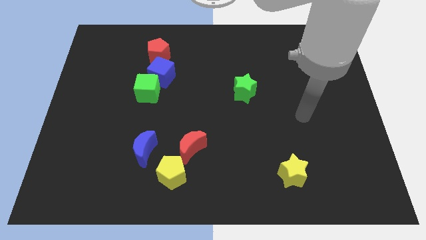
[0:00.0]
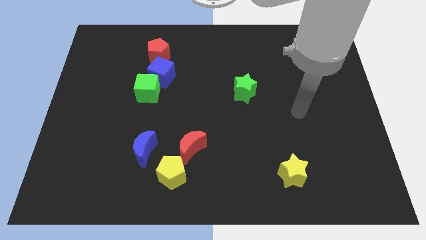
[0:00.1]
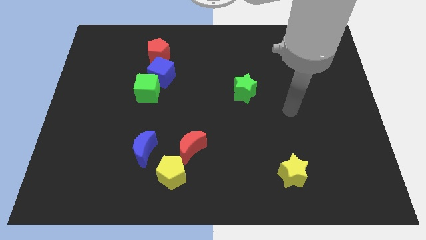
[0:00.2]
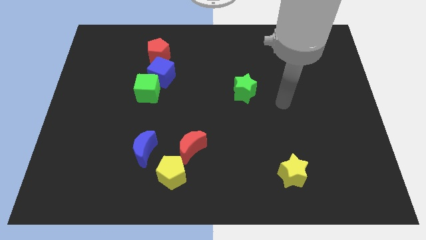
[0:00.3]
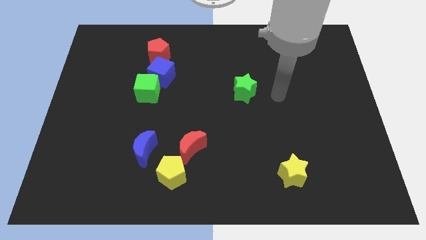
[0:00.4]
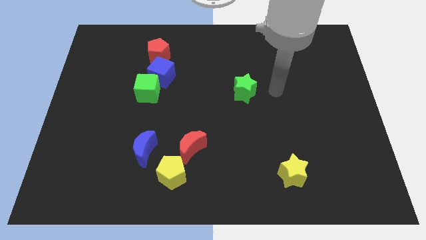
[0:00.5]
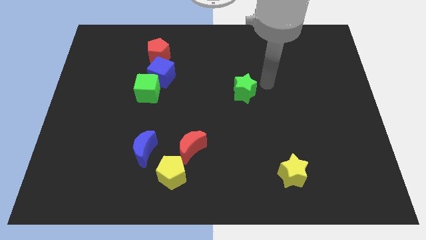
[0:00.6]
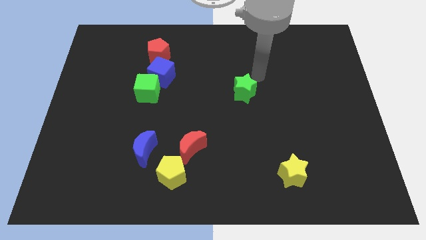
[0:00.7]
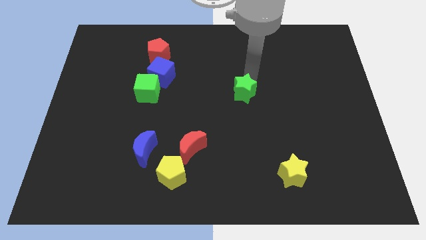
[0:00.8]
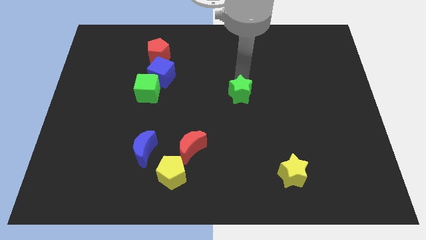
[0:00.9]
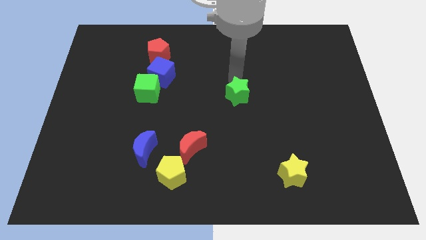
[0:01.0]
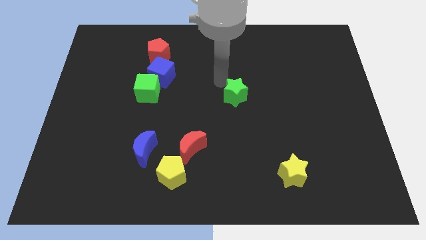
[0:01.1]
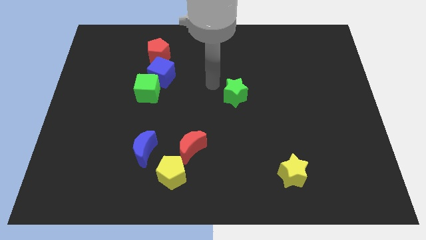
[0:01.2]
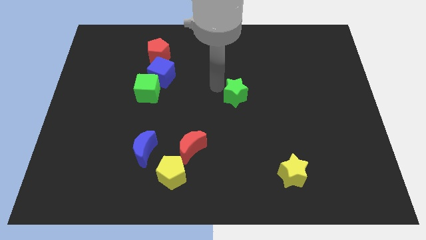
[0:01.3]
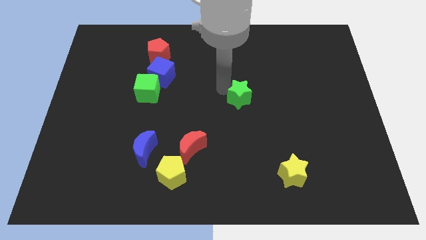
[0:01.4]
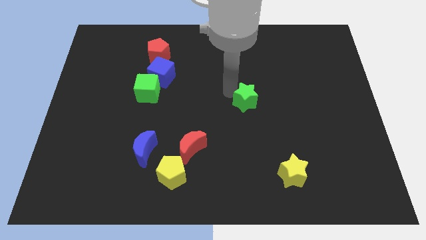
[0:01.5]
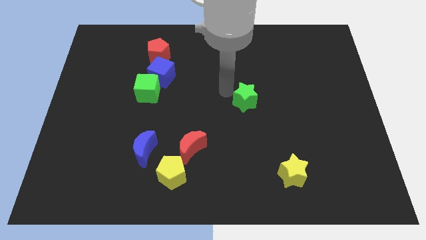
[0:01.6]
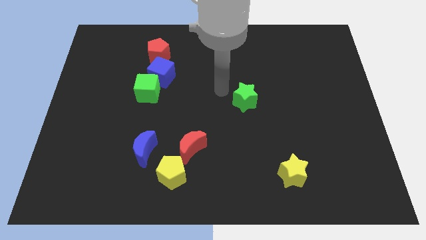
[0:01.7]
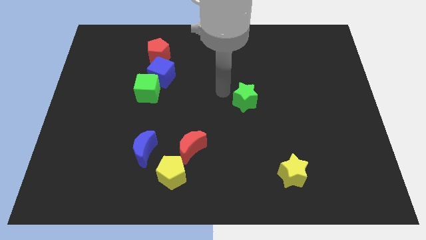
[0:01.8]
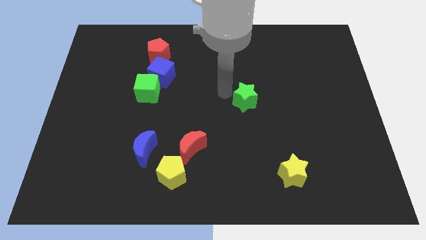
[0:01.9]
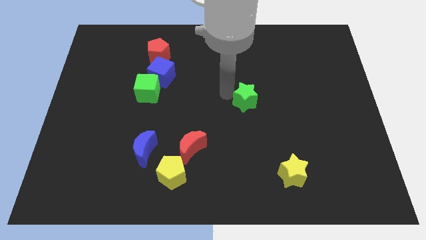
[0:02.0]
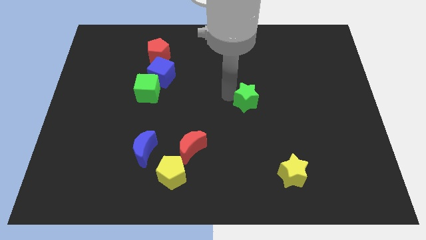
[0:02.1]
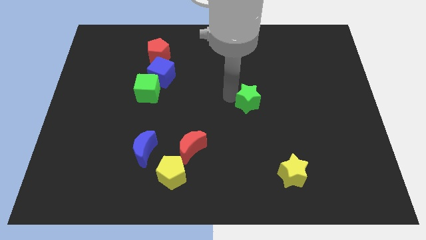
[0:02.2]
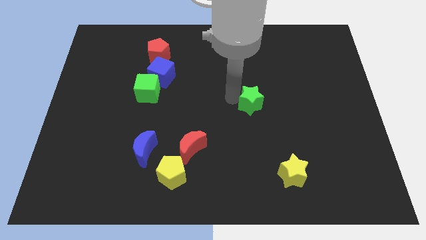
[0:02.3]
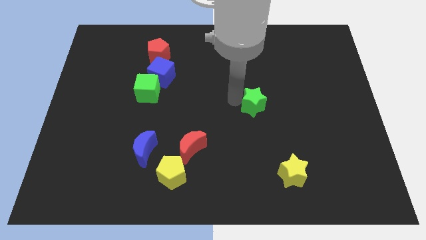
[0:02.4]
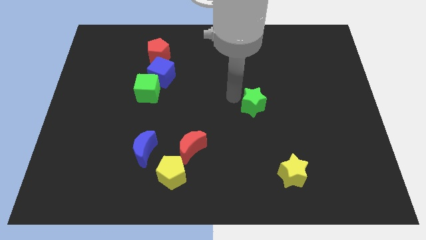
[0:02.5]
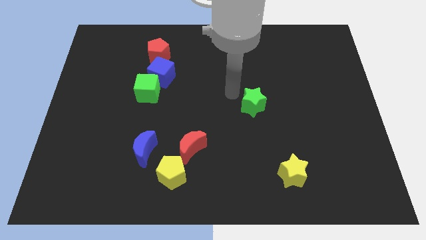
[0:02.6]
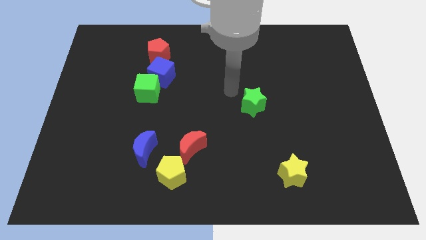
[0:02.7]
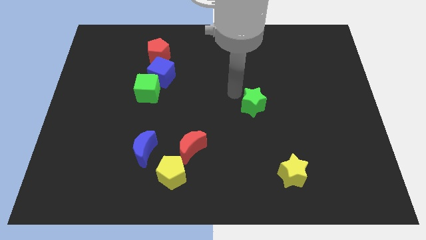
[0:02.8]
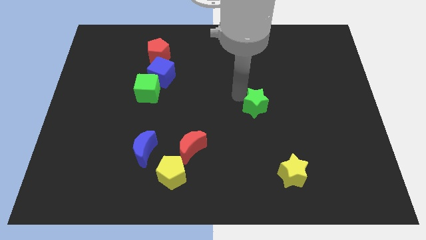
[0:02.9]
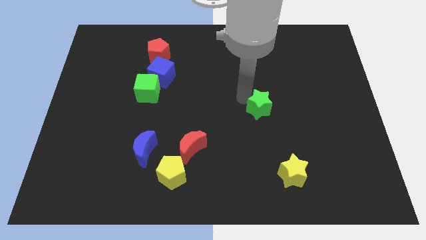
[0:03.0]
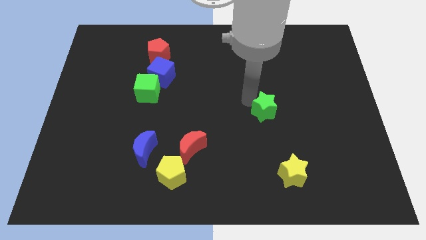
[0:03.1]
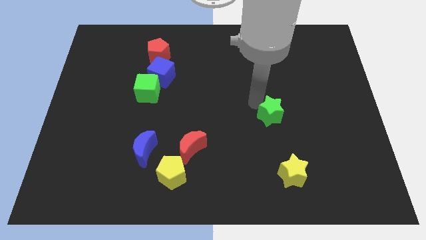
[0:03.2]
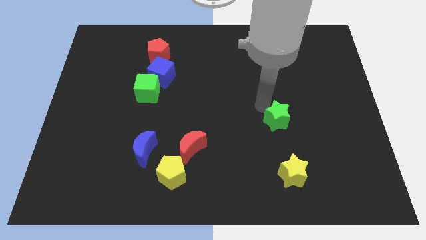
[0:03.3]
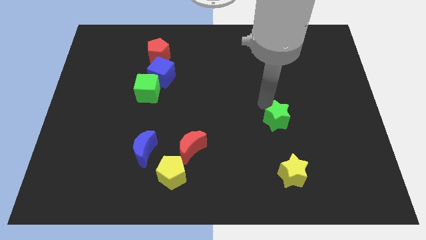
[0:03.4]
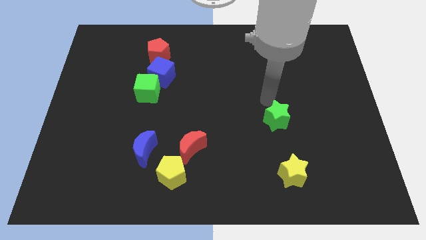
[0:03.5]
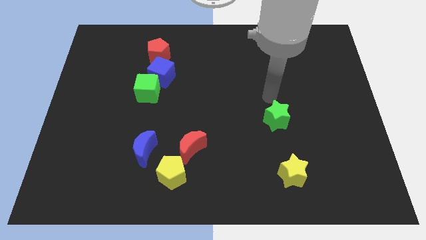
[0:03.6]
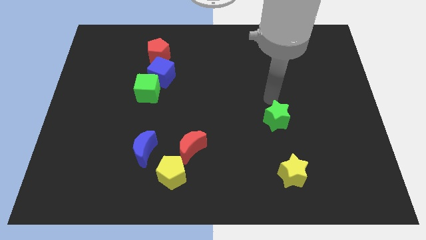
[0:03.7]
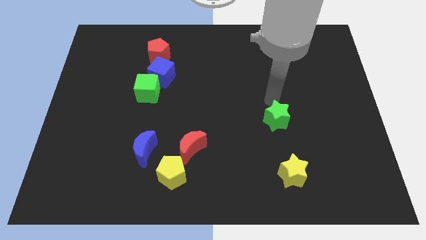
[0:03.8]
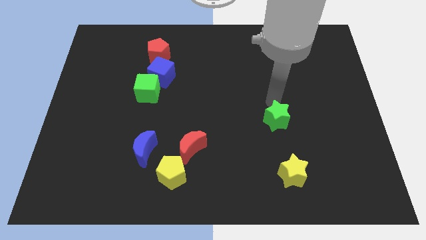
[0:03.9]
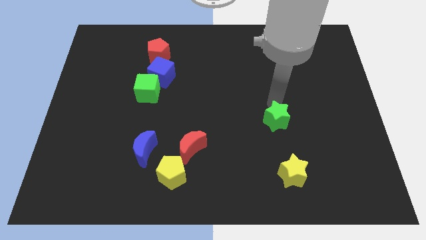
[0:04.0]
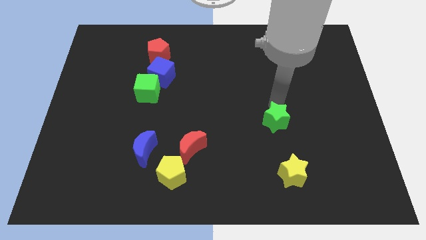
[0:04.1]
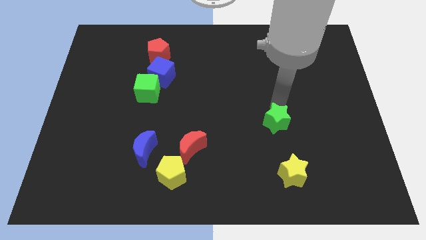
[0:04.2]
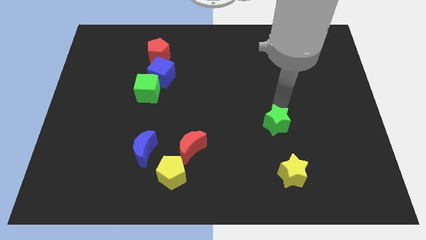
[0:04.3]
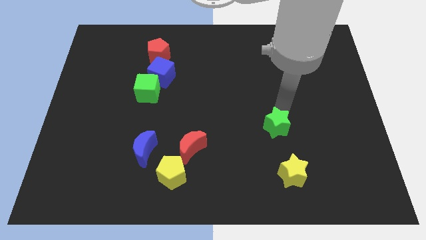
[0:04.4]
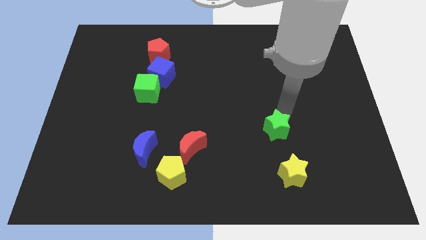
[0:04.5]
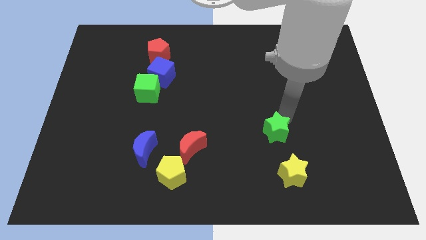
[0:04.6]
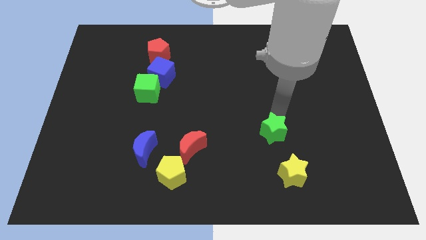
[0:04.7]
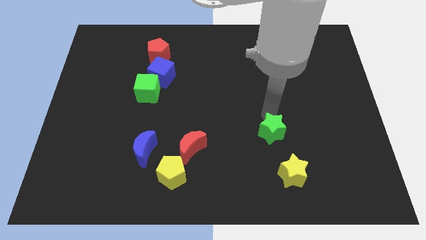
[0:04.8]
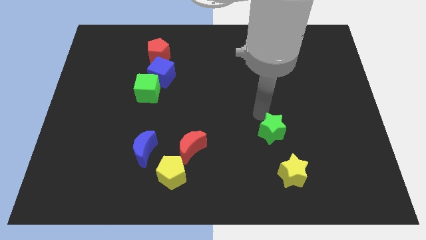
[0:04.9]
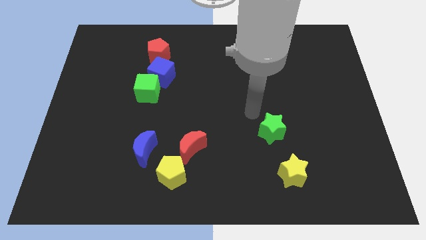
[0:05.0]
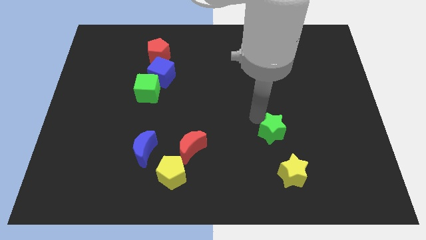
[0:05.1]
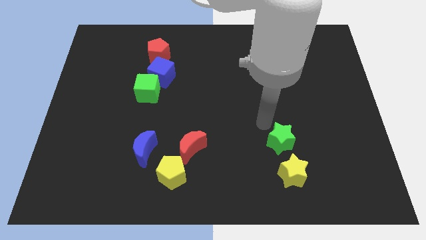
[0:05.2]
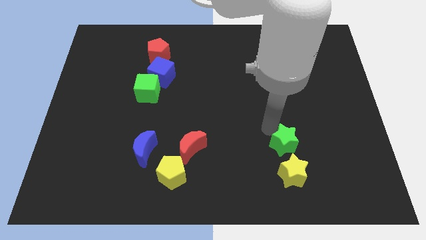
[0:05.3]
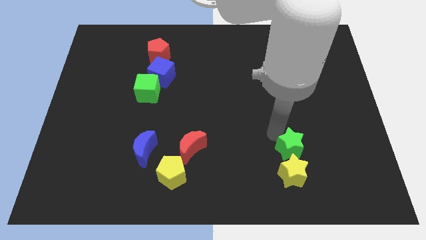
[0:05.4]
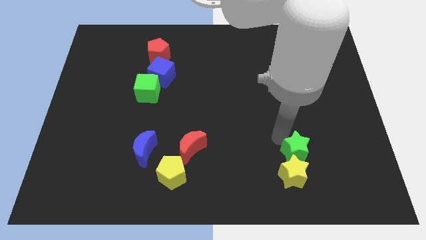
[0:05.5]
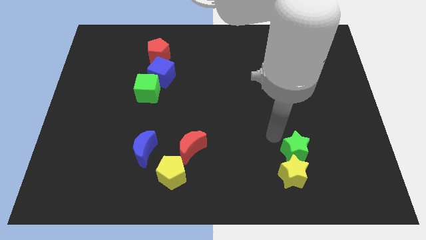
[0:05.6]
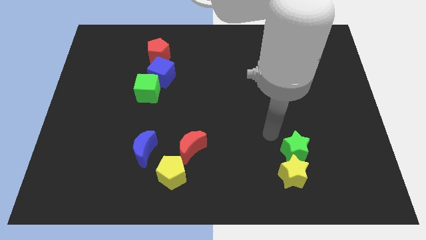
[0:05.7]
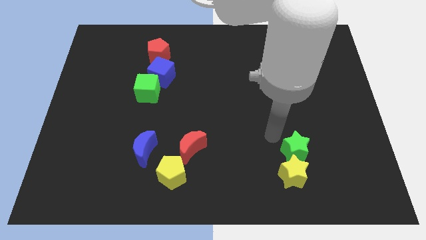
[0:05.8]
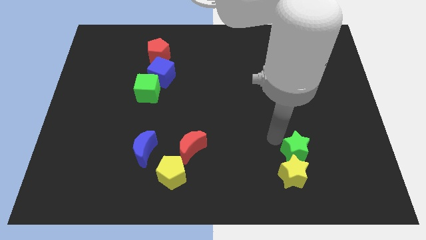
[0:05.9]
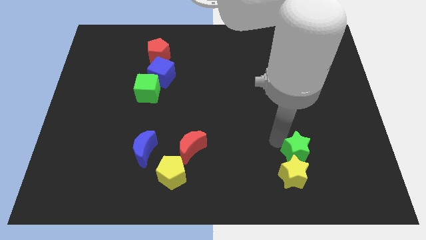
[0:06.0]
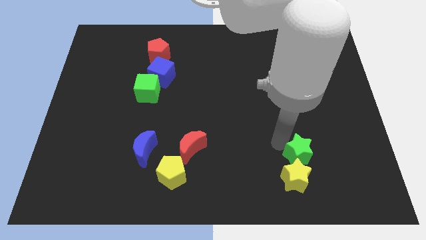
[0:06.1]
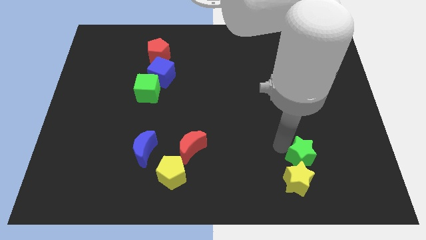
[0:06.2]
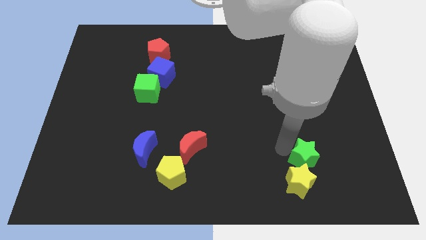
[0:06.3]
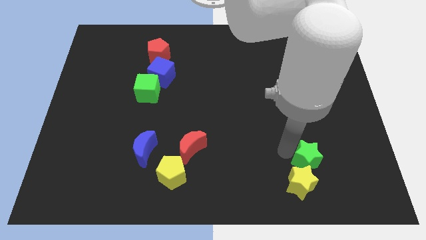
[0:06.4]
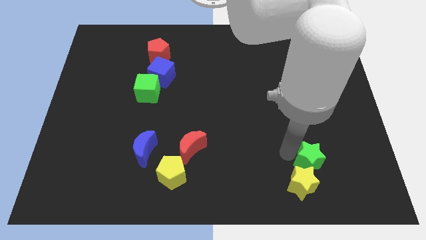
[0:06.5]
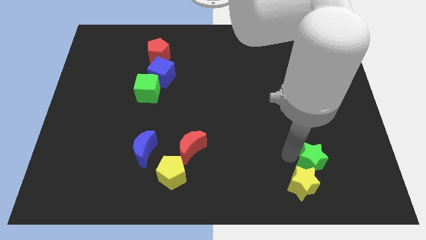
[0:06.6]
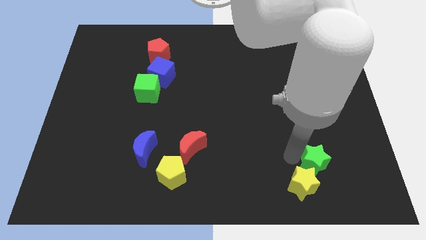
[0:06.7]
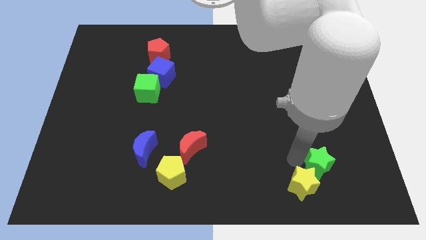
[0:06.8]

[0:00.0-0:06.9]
move the green star to the right of the yellow star

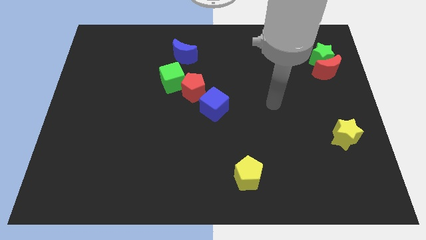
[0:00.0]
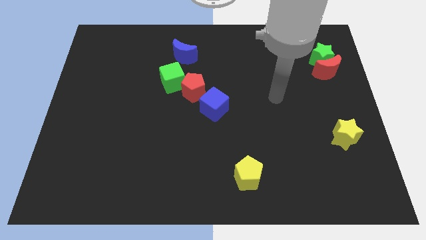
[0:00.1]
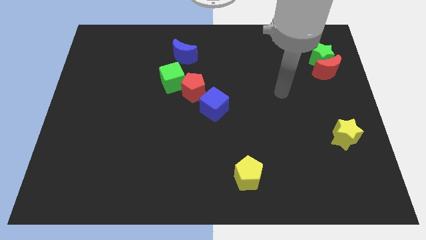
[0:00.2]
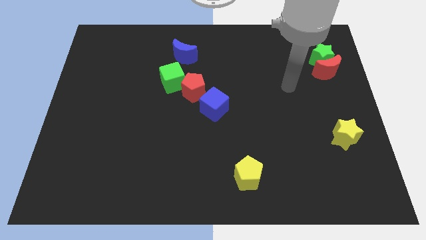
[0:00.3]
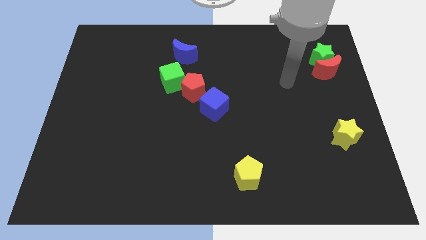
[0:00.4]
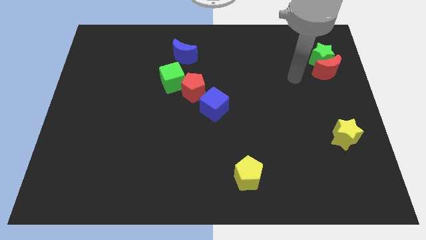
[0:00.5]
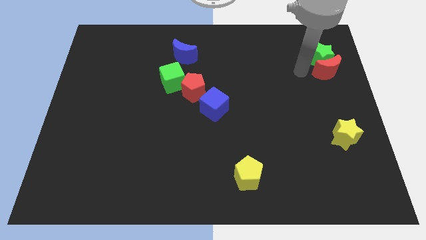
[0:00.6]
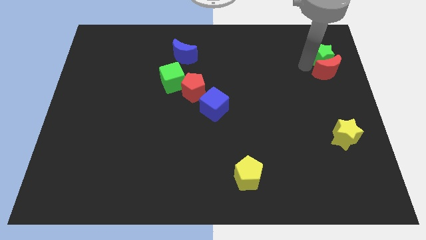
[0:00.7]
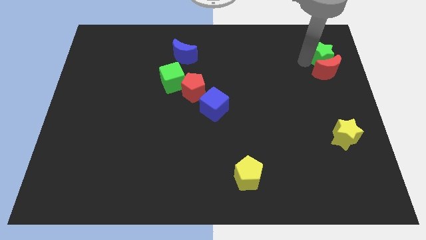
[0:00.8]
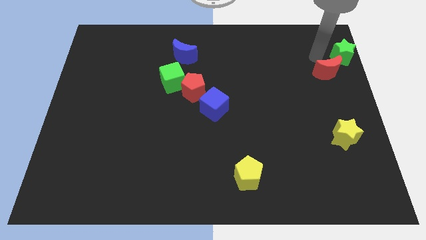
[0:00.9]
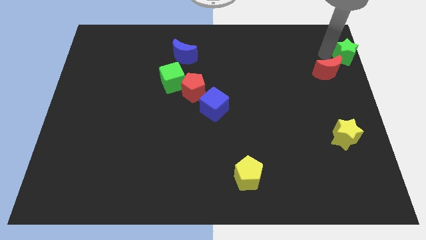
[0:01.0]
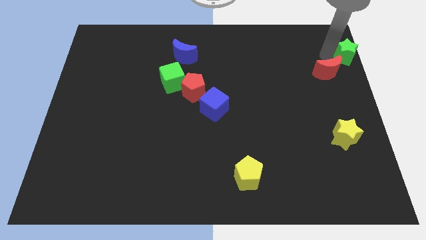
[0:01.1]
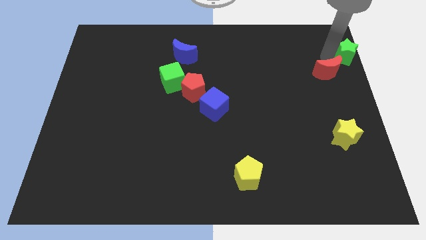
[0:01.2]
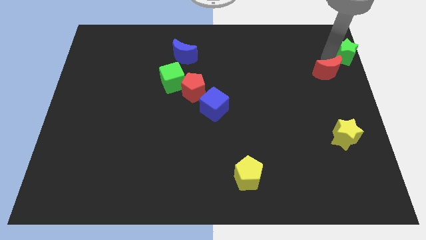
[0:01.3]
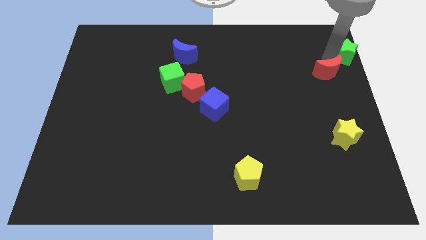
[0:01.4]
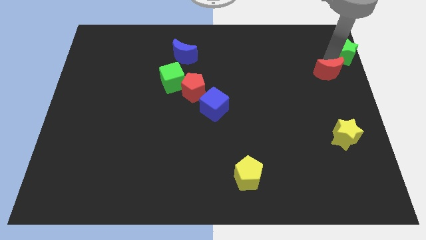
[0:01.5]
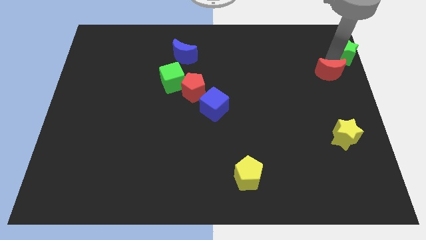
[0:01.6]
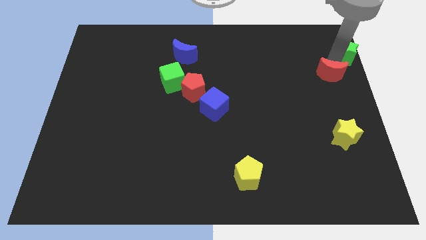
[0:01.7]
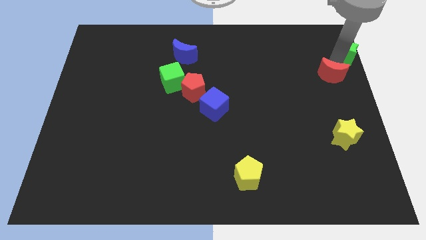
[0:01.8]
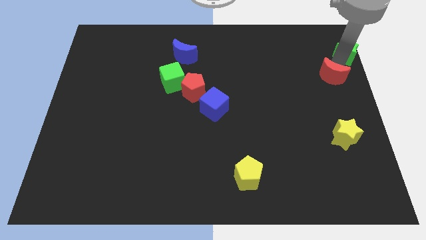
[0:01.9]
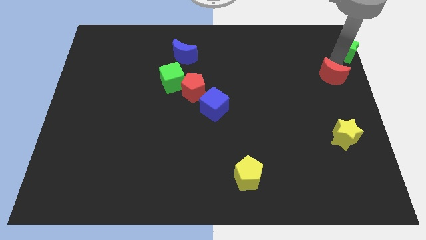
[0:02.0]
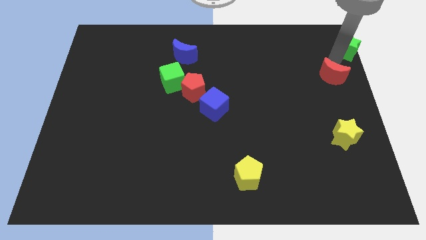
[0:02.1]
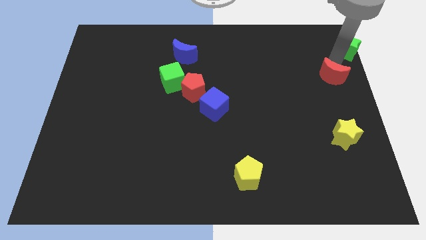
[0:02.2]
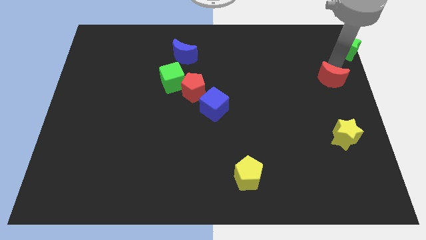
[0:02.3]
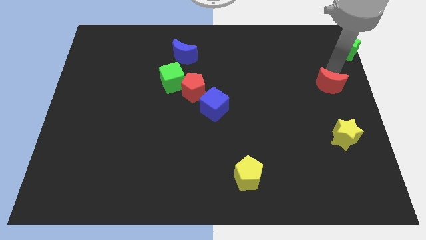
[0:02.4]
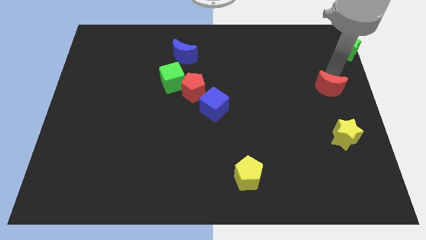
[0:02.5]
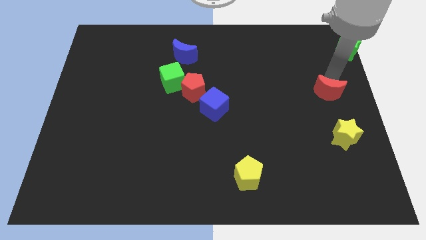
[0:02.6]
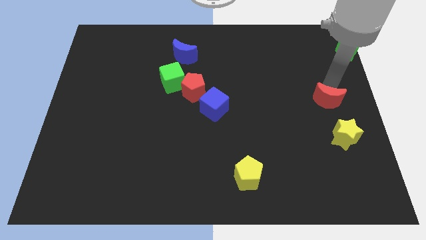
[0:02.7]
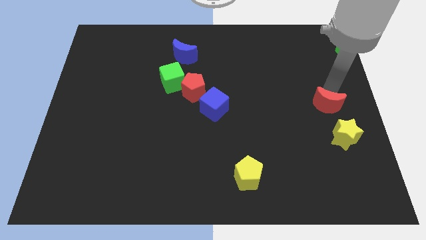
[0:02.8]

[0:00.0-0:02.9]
put the red moon to the top left of the yellow star
